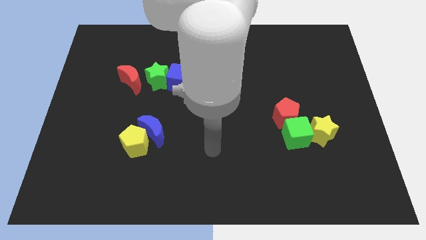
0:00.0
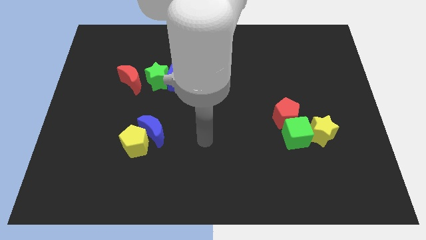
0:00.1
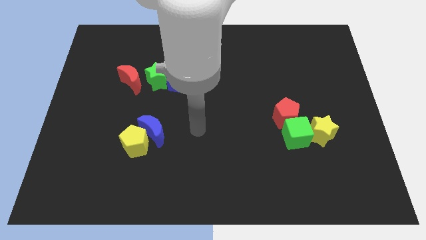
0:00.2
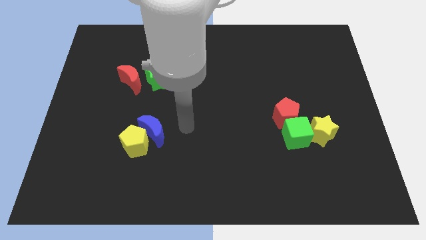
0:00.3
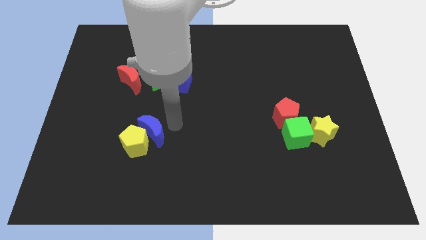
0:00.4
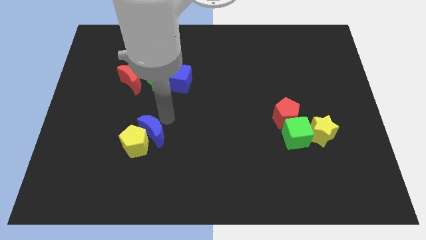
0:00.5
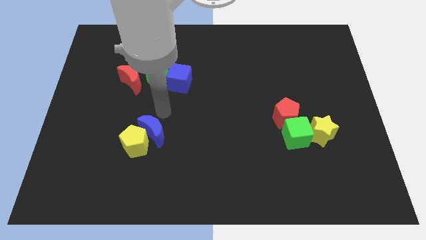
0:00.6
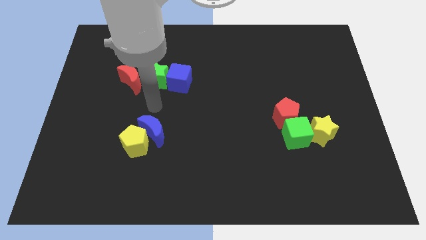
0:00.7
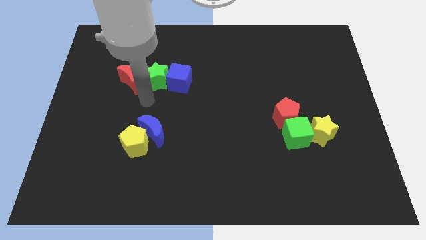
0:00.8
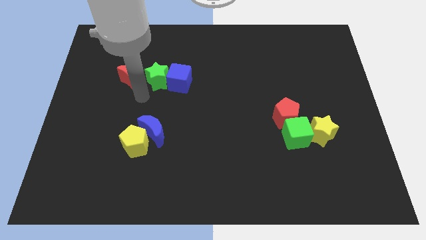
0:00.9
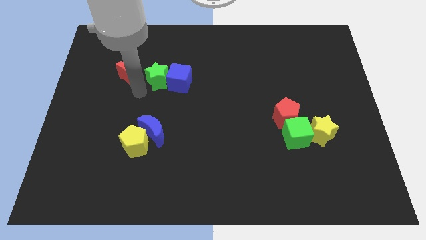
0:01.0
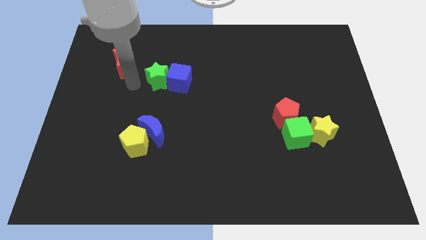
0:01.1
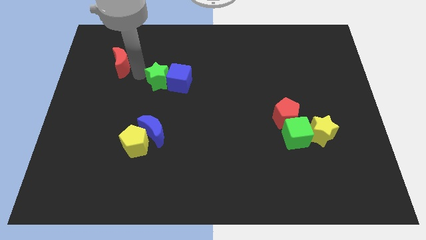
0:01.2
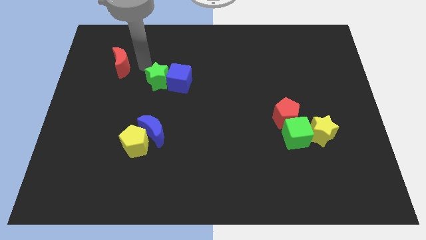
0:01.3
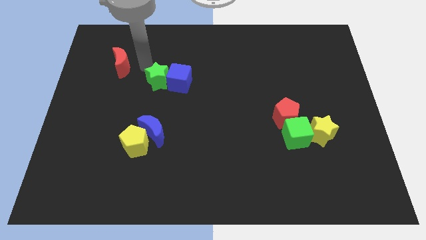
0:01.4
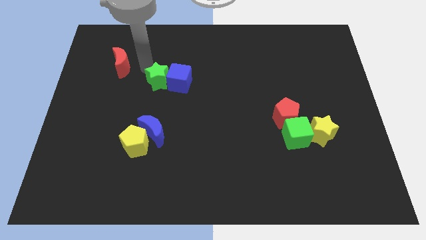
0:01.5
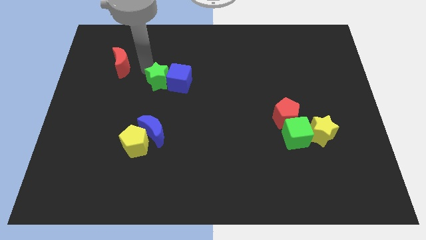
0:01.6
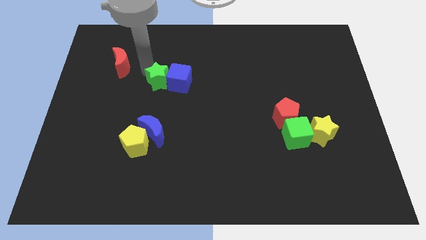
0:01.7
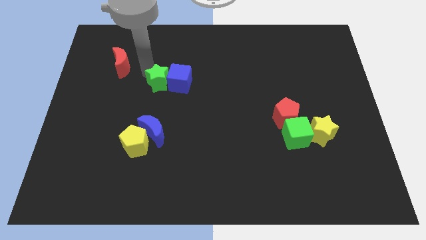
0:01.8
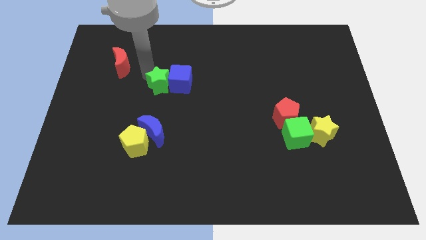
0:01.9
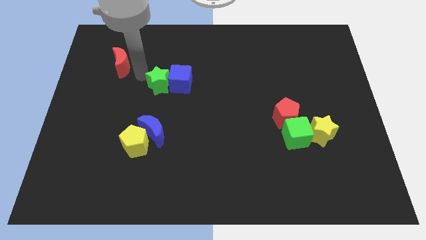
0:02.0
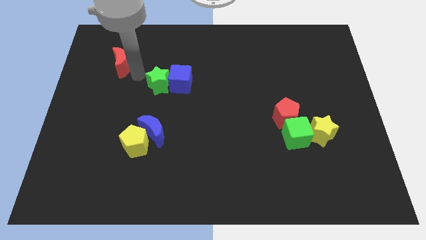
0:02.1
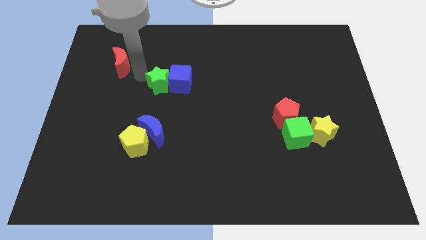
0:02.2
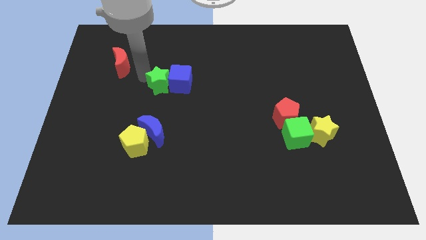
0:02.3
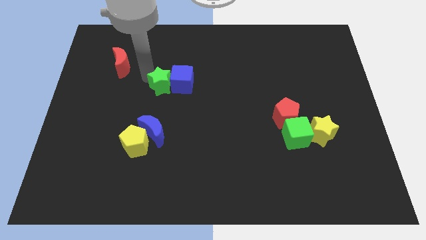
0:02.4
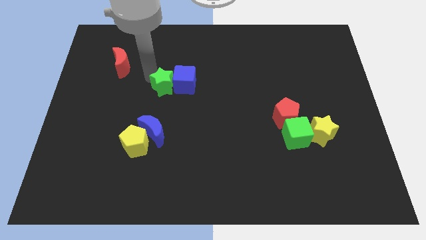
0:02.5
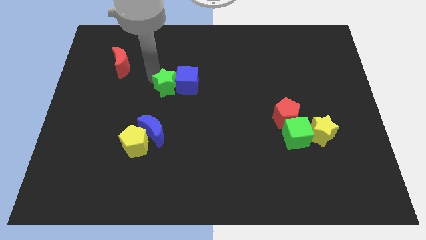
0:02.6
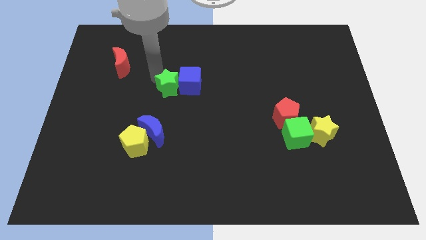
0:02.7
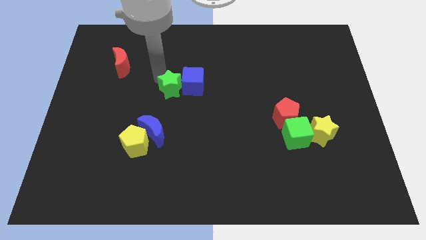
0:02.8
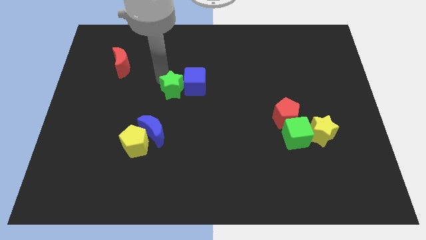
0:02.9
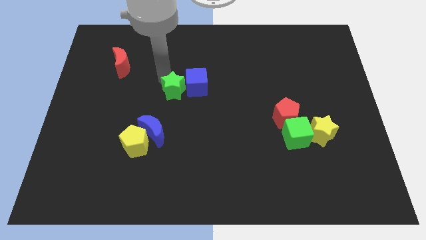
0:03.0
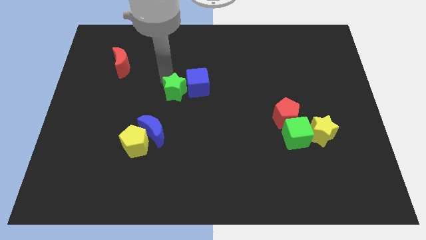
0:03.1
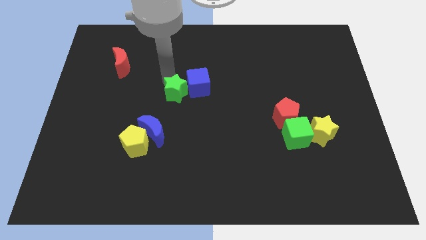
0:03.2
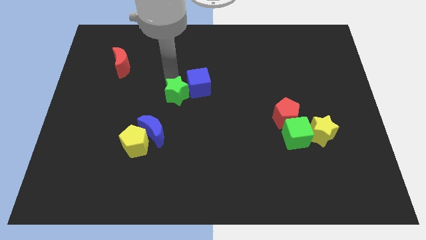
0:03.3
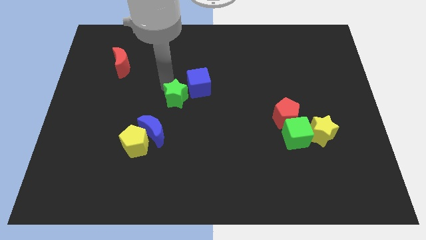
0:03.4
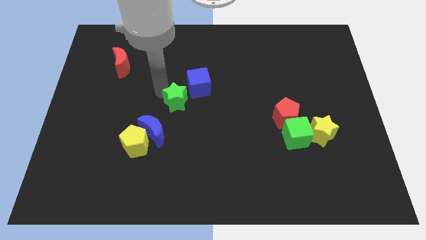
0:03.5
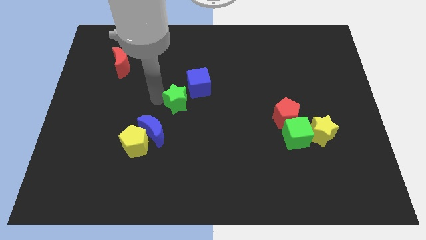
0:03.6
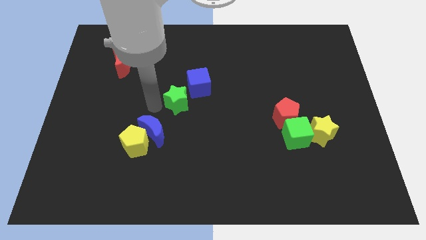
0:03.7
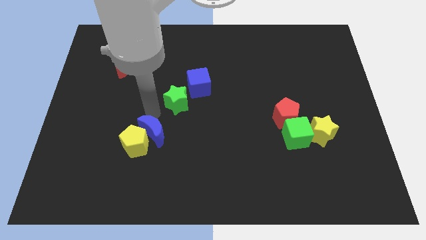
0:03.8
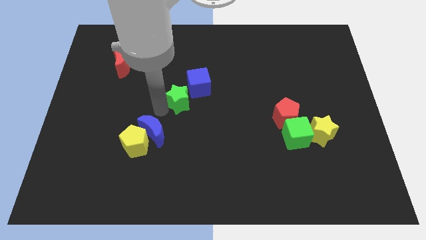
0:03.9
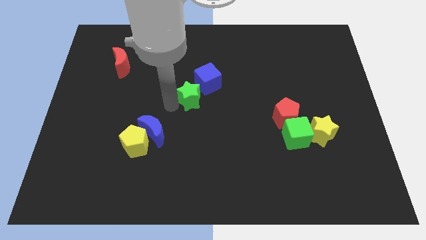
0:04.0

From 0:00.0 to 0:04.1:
slide the green star right somewhat

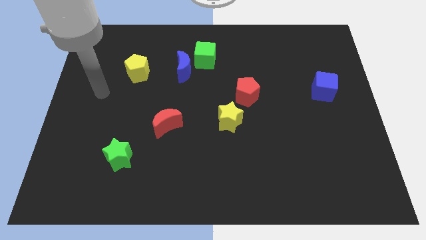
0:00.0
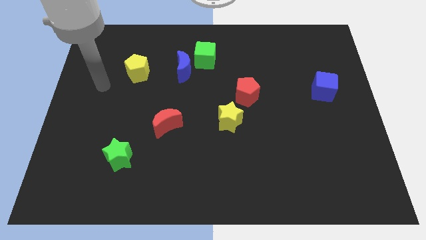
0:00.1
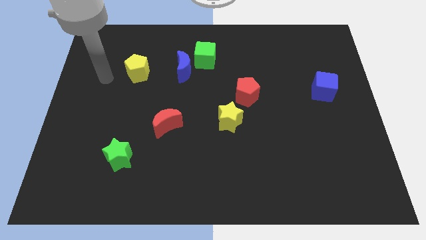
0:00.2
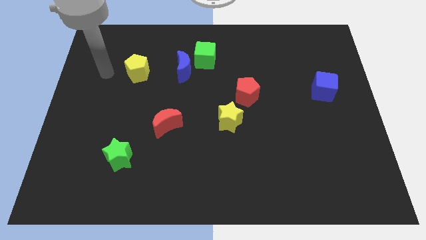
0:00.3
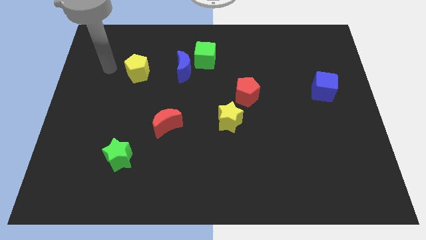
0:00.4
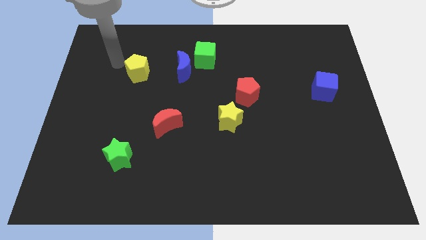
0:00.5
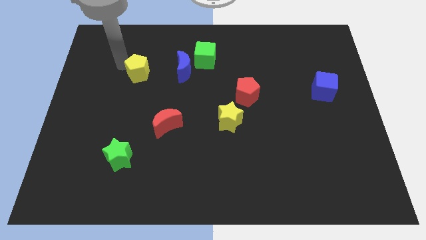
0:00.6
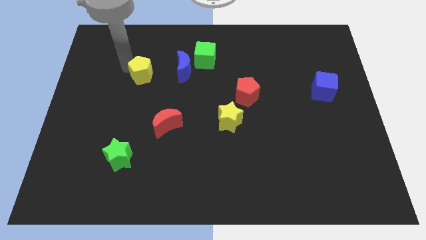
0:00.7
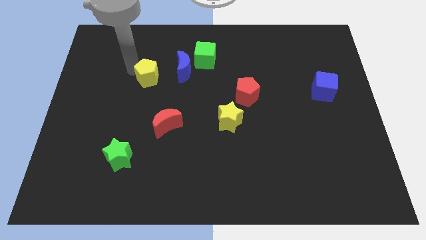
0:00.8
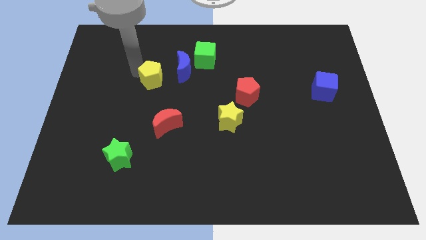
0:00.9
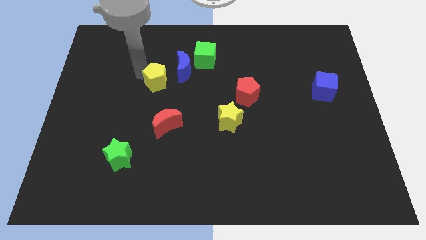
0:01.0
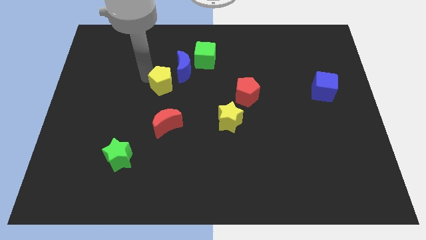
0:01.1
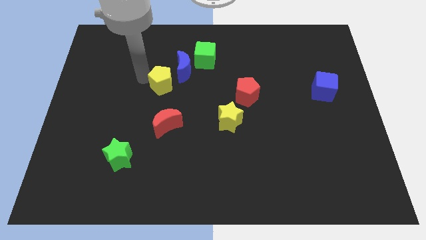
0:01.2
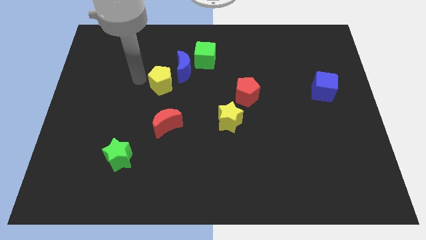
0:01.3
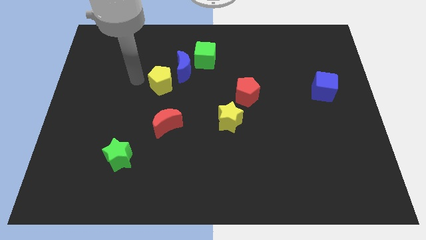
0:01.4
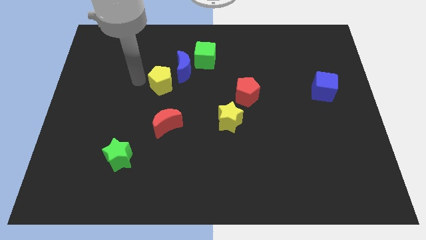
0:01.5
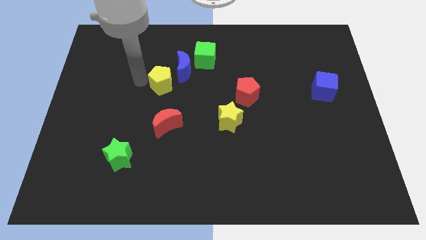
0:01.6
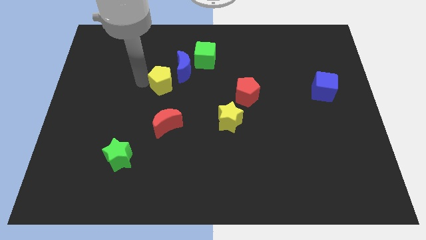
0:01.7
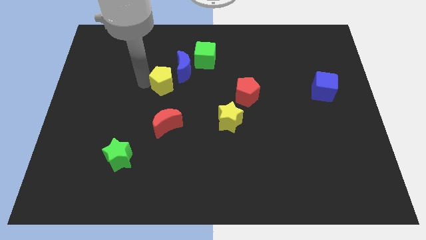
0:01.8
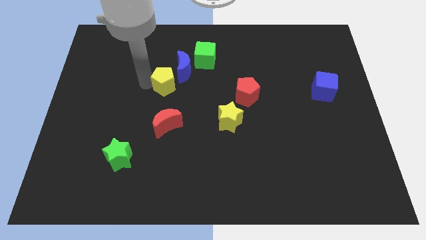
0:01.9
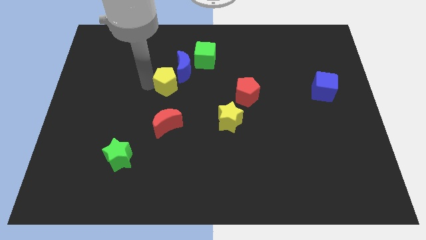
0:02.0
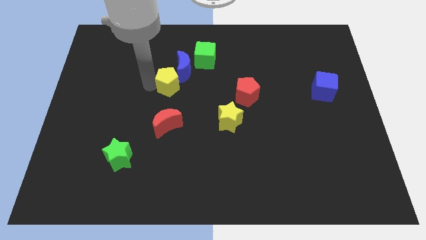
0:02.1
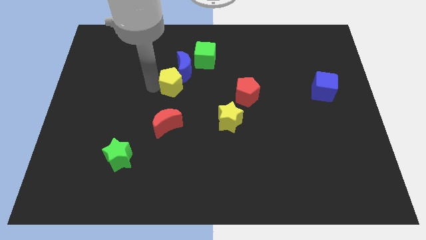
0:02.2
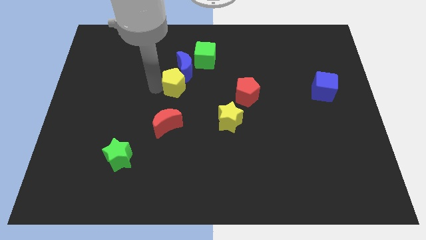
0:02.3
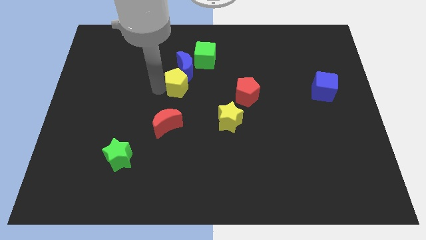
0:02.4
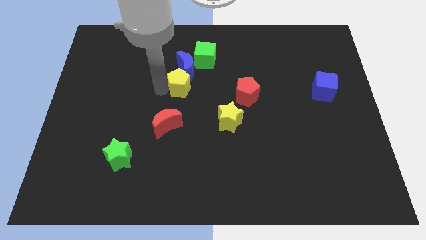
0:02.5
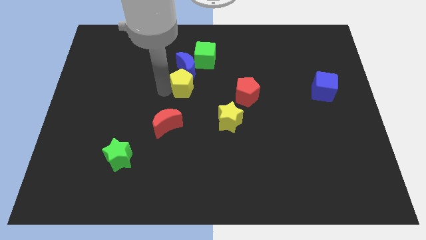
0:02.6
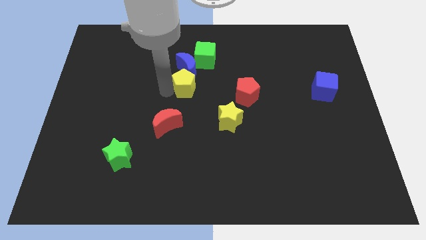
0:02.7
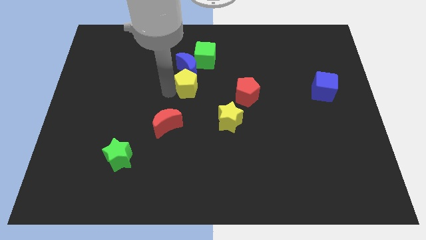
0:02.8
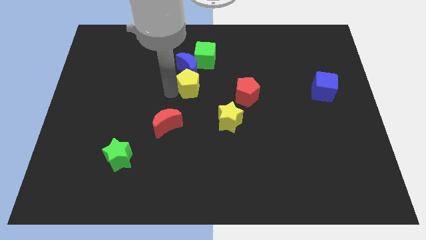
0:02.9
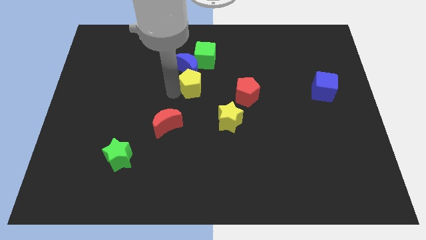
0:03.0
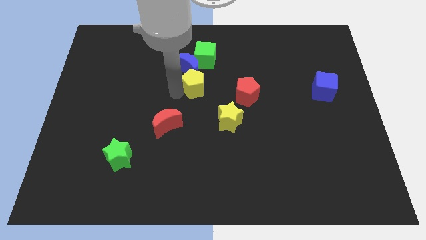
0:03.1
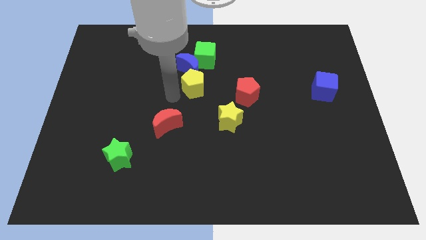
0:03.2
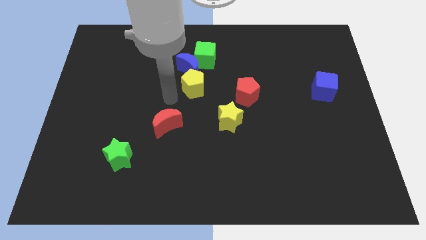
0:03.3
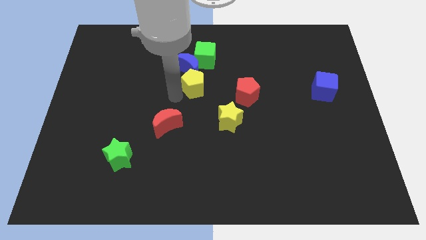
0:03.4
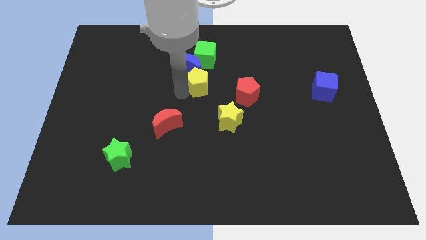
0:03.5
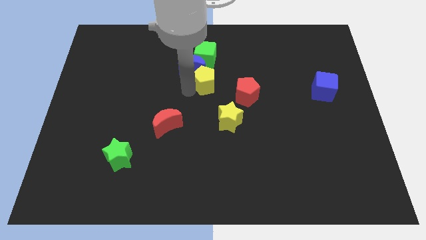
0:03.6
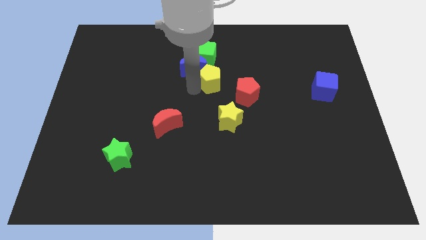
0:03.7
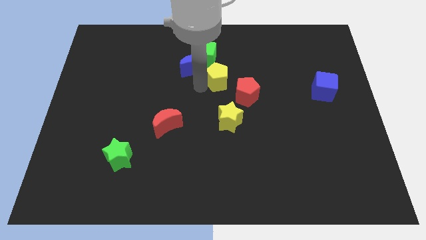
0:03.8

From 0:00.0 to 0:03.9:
slide the yellow pentagon to the right
